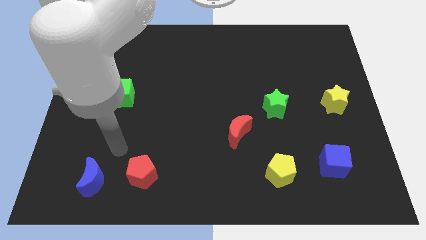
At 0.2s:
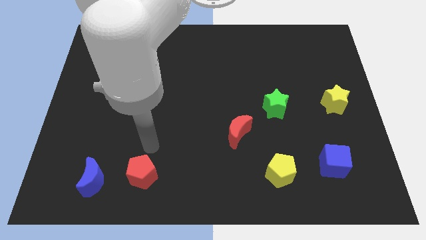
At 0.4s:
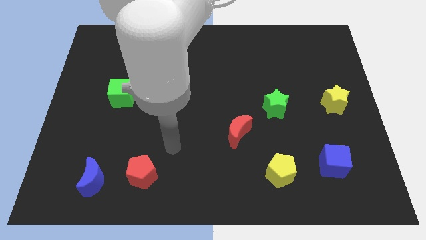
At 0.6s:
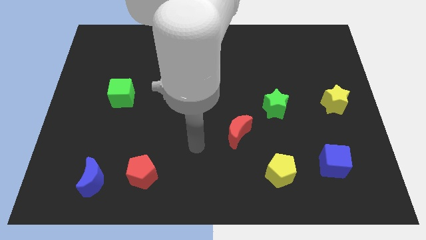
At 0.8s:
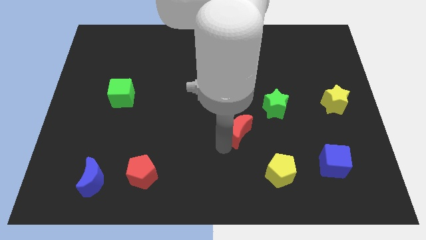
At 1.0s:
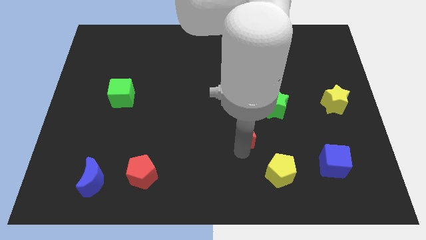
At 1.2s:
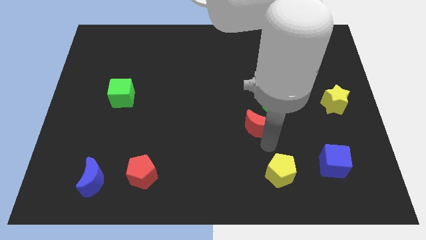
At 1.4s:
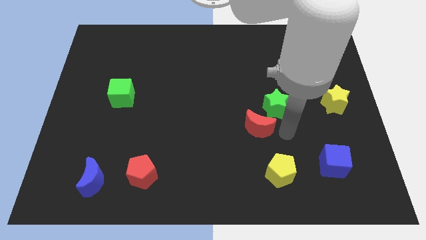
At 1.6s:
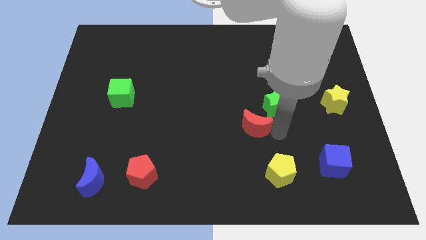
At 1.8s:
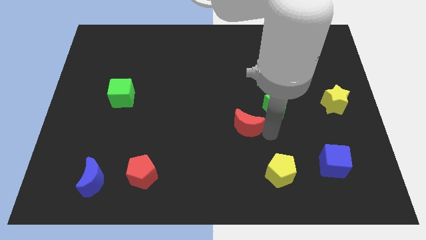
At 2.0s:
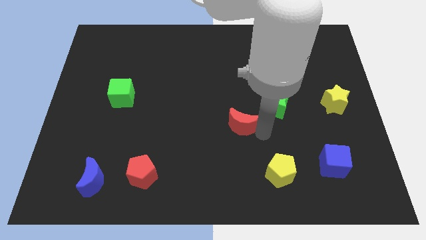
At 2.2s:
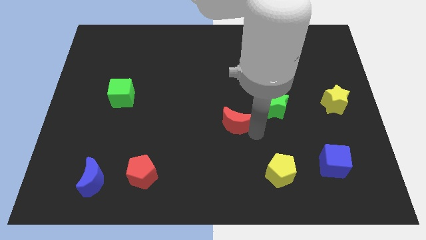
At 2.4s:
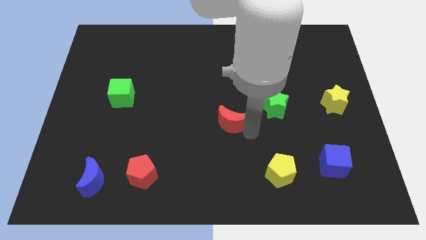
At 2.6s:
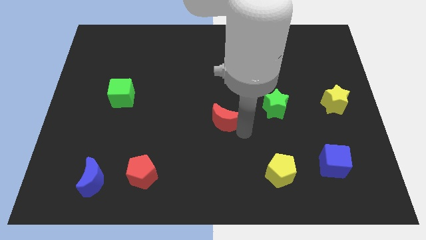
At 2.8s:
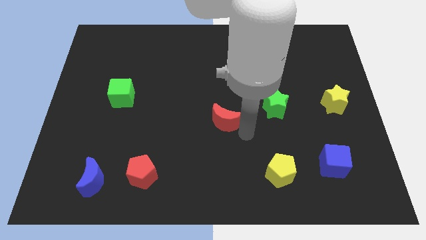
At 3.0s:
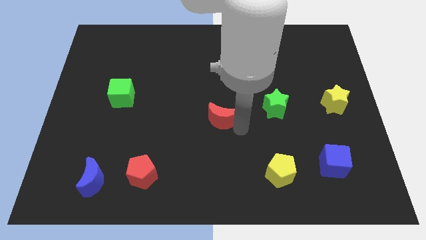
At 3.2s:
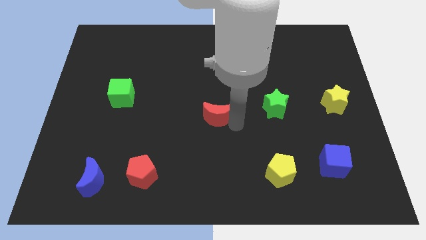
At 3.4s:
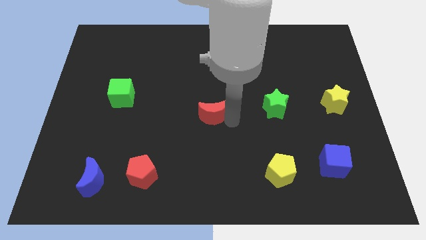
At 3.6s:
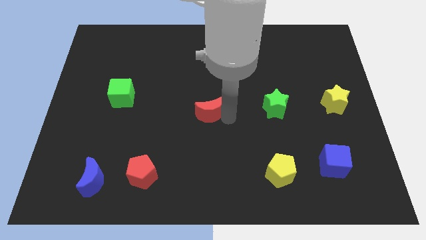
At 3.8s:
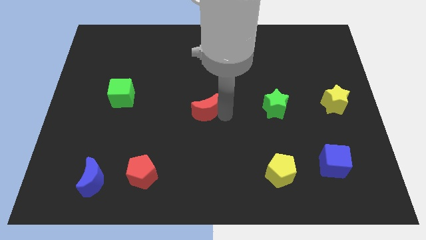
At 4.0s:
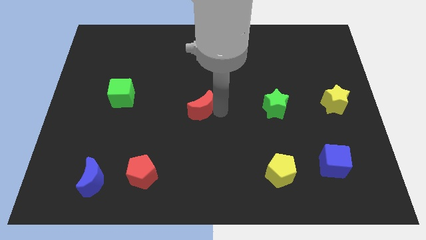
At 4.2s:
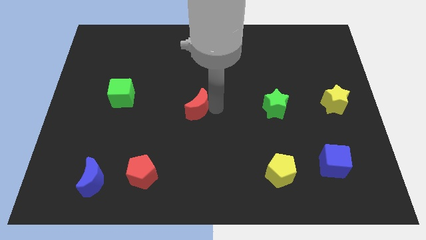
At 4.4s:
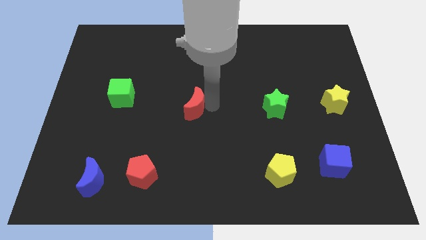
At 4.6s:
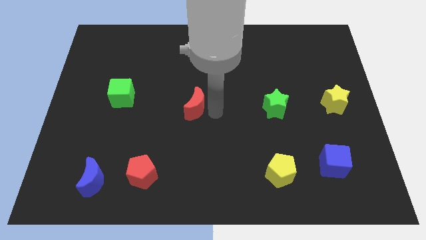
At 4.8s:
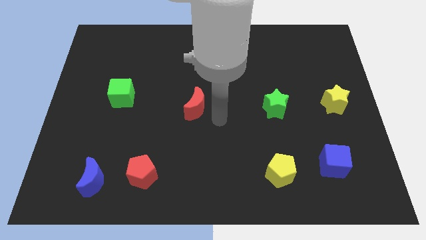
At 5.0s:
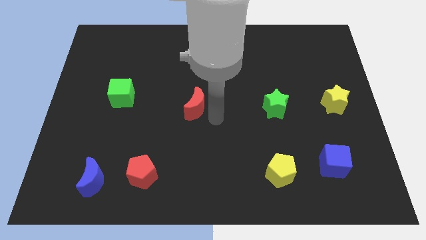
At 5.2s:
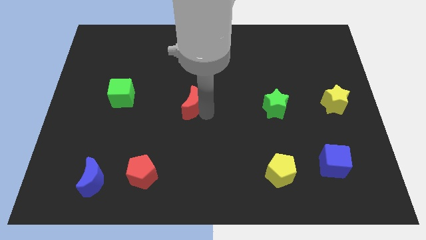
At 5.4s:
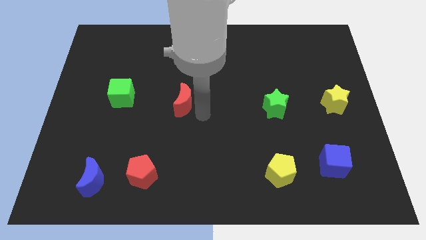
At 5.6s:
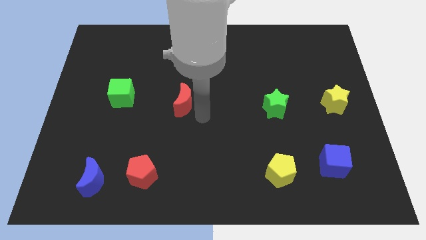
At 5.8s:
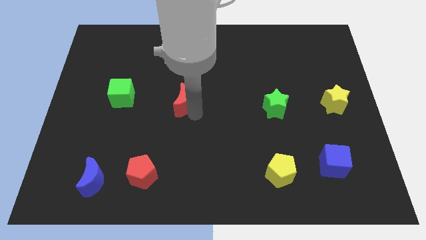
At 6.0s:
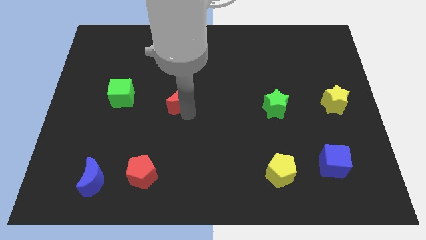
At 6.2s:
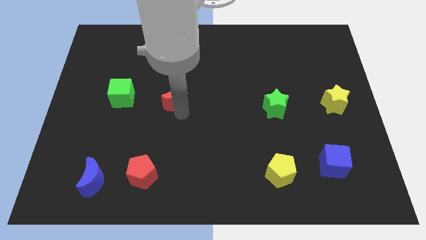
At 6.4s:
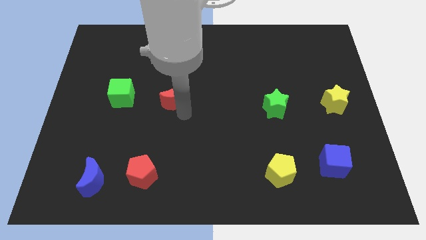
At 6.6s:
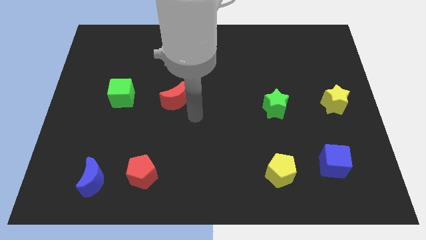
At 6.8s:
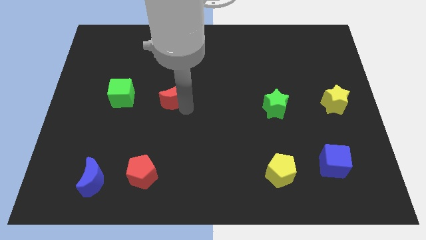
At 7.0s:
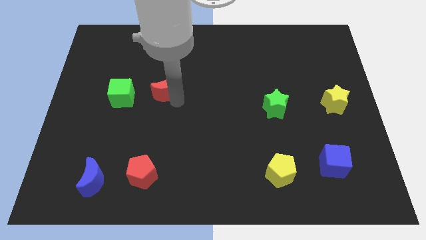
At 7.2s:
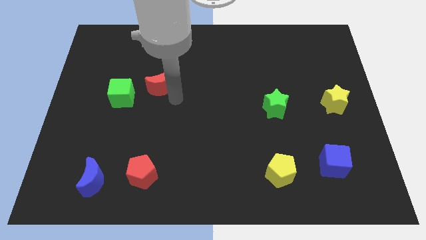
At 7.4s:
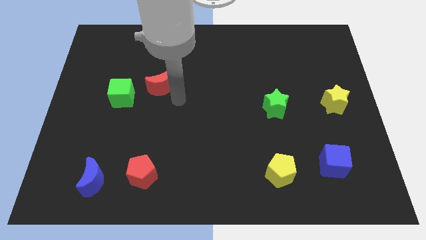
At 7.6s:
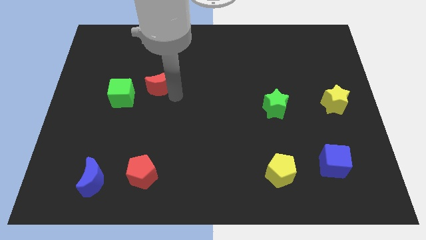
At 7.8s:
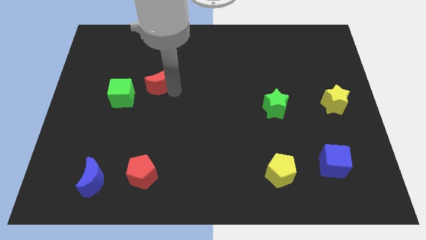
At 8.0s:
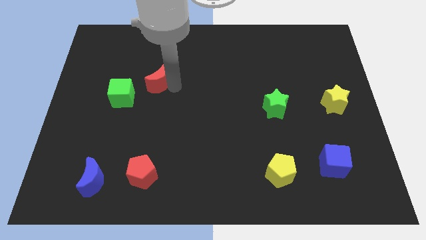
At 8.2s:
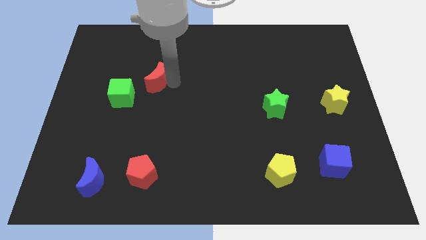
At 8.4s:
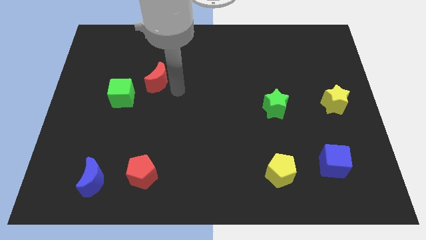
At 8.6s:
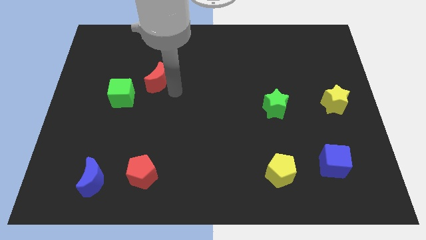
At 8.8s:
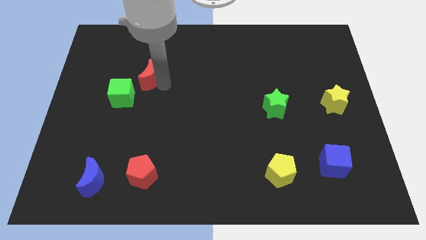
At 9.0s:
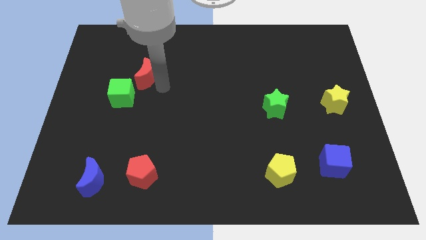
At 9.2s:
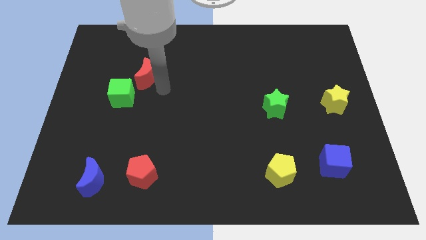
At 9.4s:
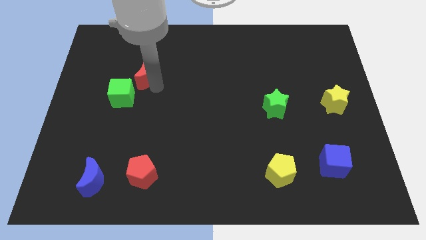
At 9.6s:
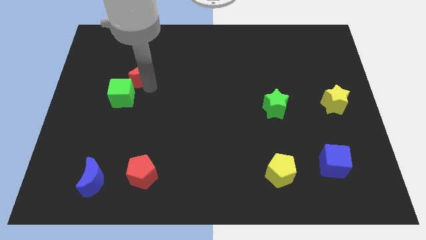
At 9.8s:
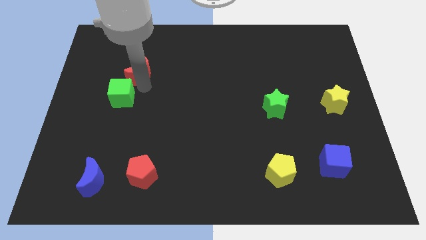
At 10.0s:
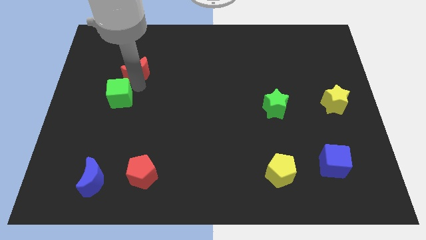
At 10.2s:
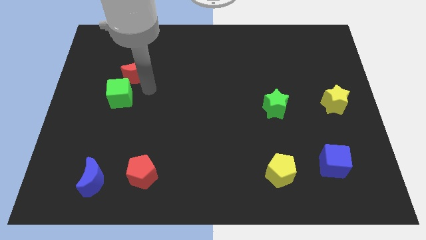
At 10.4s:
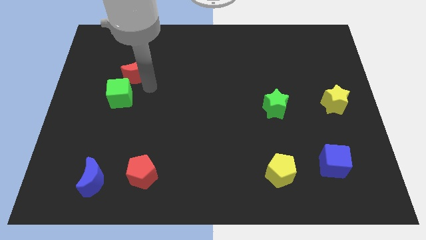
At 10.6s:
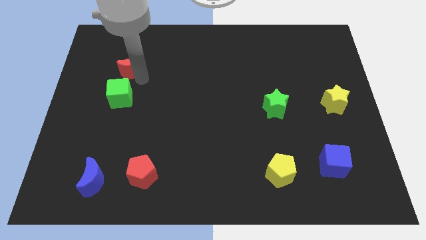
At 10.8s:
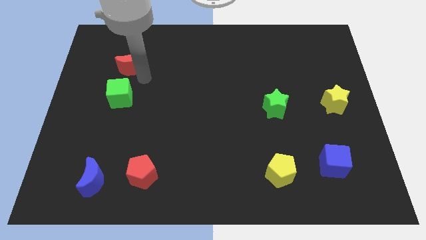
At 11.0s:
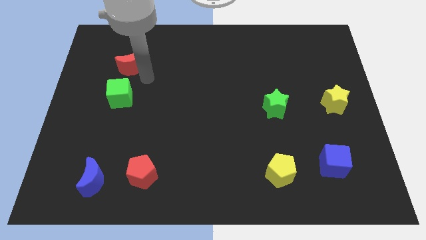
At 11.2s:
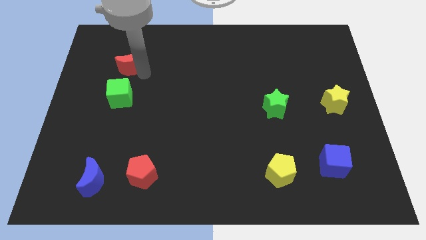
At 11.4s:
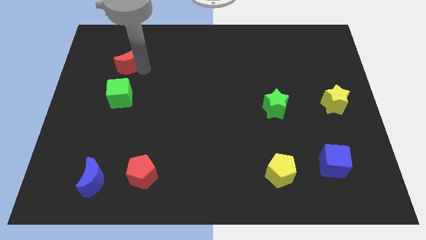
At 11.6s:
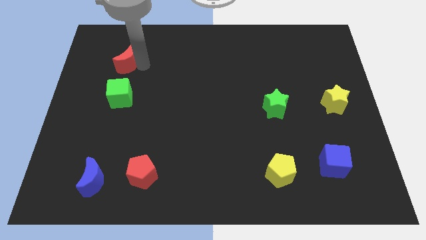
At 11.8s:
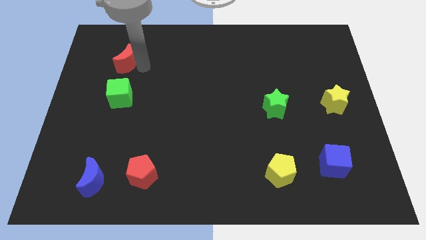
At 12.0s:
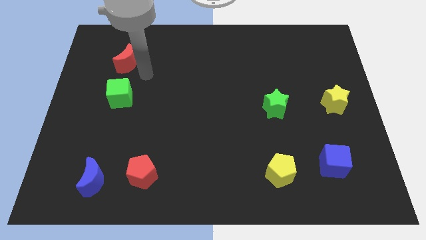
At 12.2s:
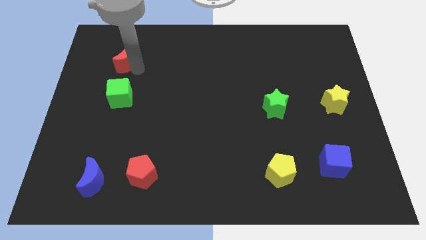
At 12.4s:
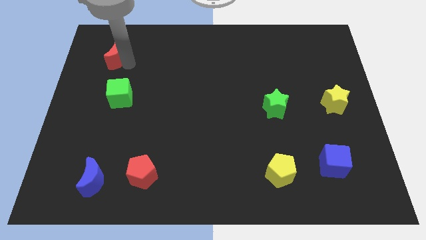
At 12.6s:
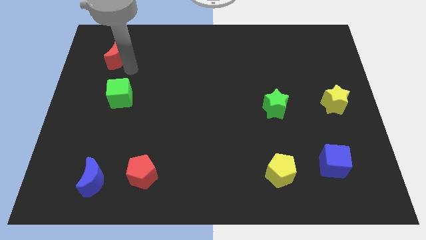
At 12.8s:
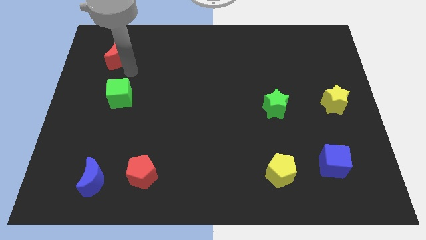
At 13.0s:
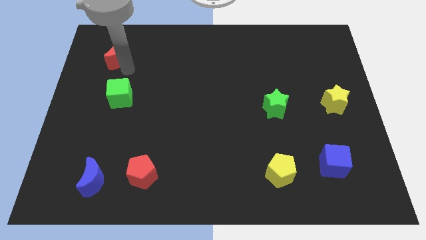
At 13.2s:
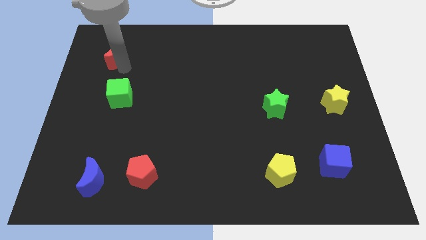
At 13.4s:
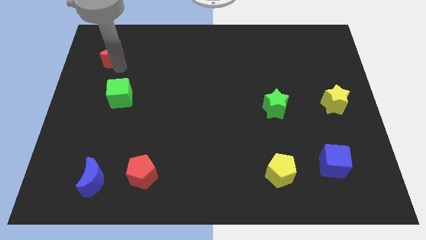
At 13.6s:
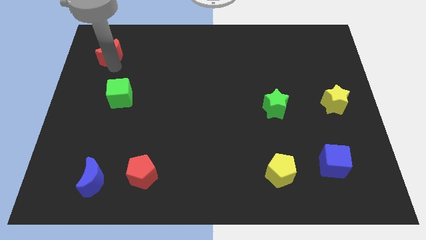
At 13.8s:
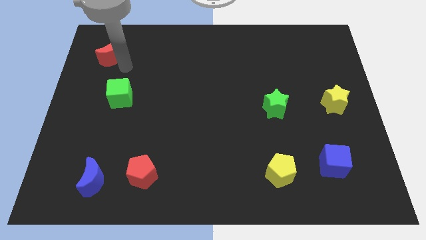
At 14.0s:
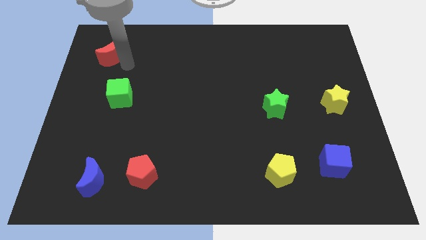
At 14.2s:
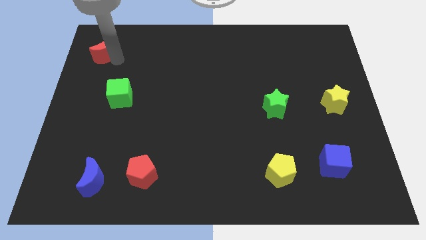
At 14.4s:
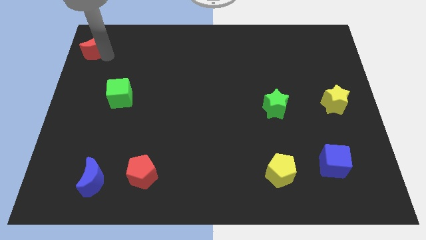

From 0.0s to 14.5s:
move the red moon to the top left corner
